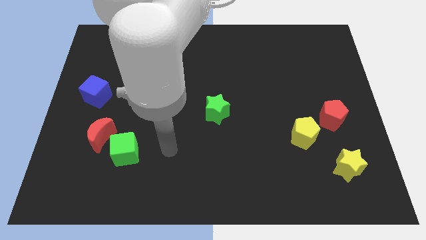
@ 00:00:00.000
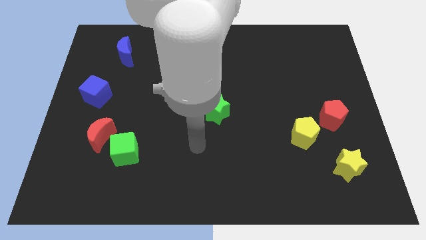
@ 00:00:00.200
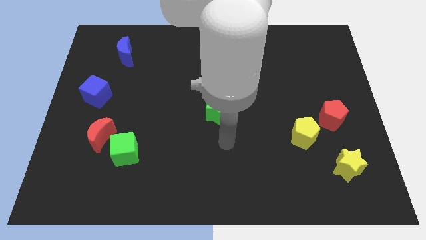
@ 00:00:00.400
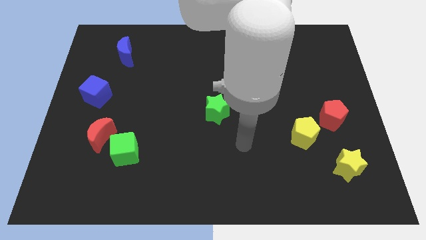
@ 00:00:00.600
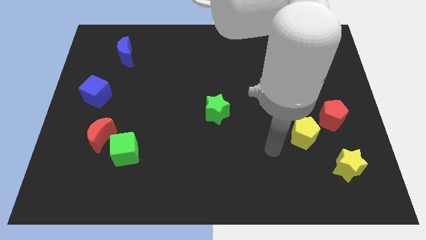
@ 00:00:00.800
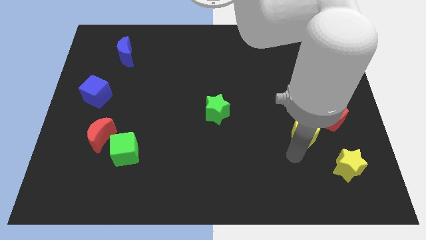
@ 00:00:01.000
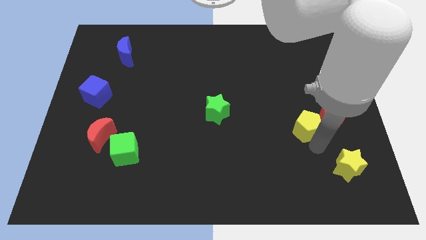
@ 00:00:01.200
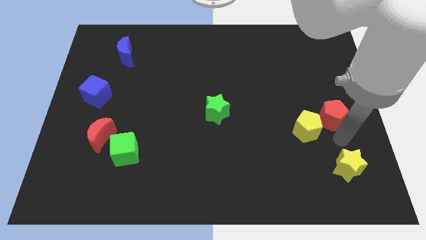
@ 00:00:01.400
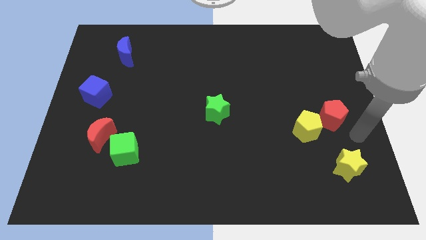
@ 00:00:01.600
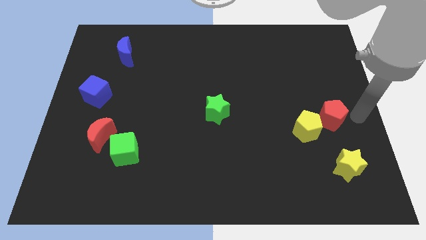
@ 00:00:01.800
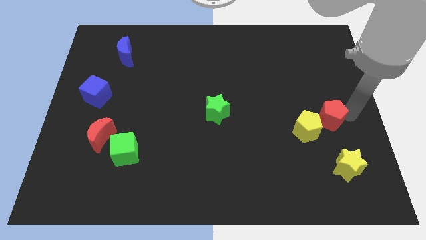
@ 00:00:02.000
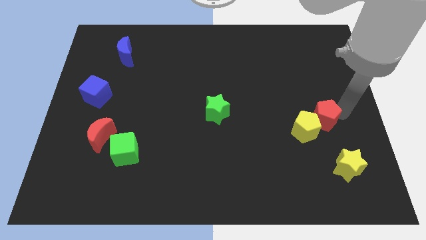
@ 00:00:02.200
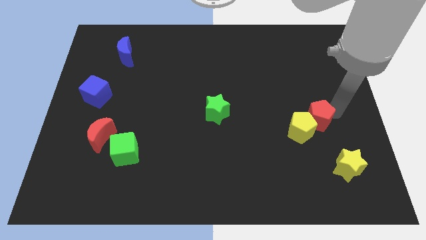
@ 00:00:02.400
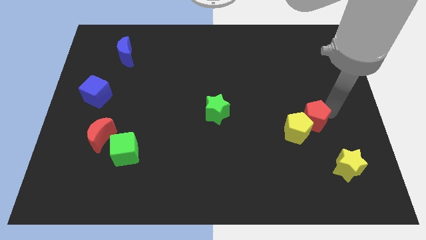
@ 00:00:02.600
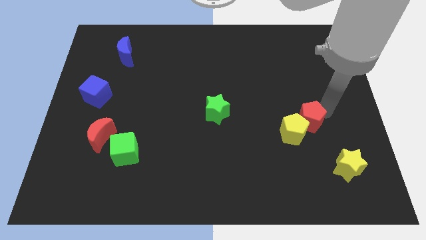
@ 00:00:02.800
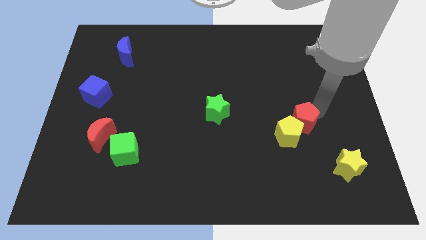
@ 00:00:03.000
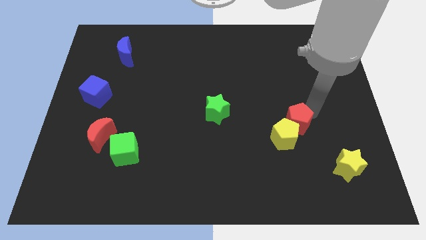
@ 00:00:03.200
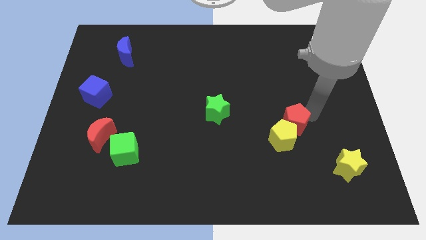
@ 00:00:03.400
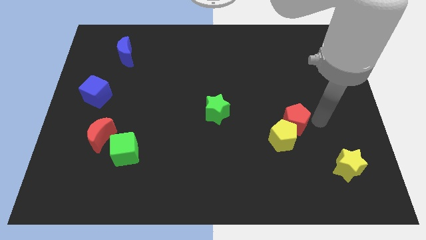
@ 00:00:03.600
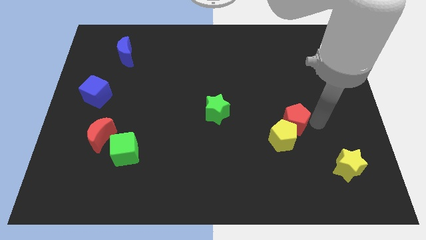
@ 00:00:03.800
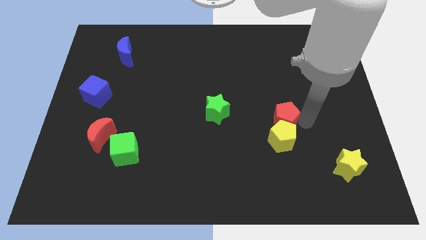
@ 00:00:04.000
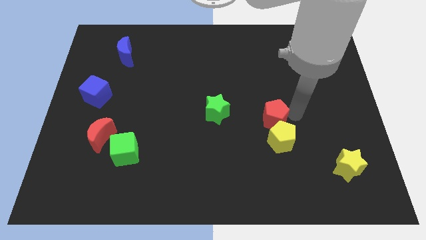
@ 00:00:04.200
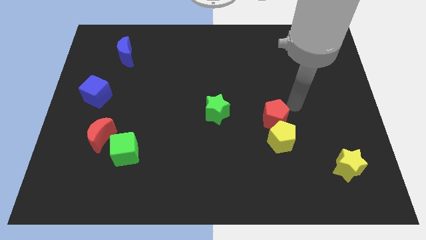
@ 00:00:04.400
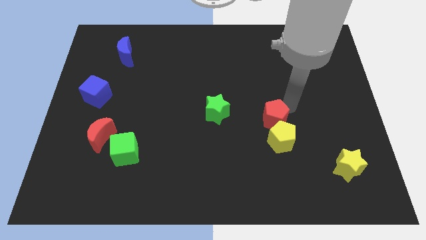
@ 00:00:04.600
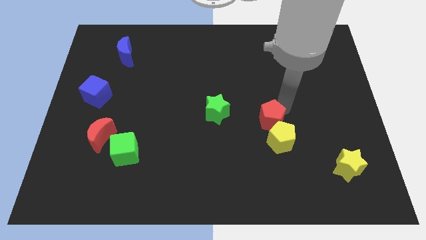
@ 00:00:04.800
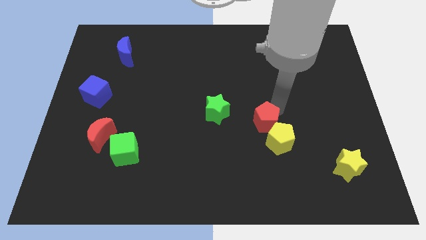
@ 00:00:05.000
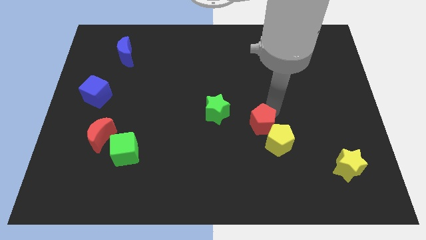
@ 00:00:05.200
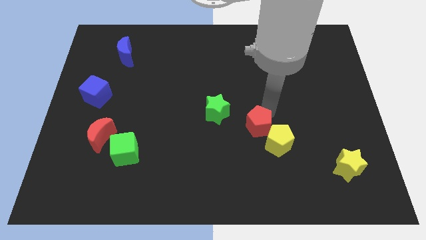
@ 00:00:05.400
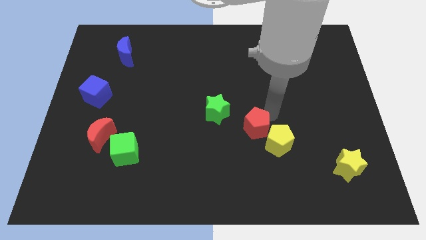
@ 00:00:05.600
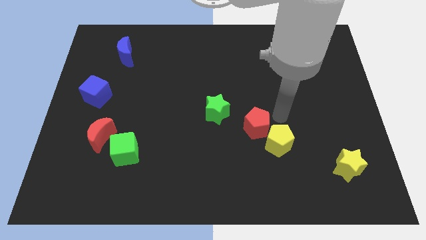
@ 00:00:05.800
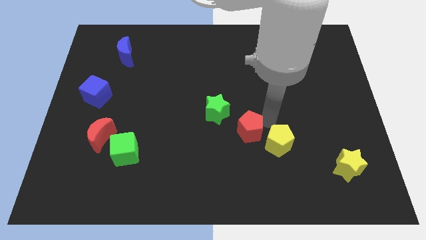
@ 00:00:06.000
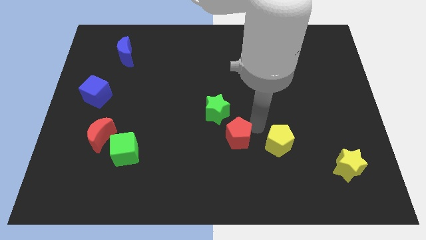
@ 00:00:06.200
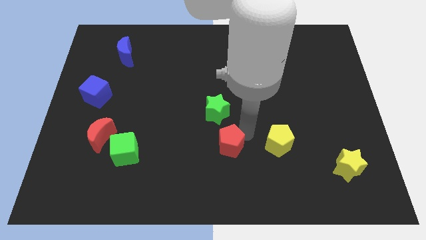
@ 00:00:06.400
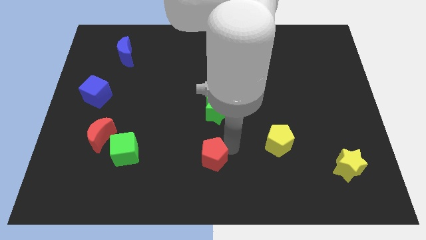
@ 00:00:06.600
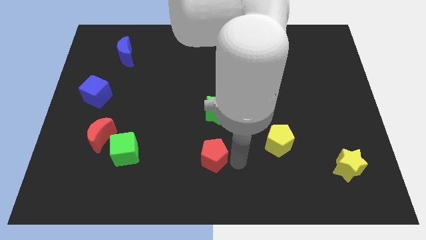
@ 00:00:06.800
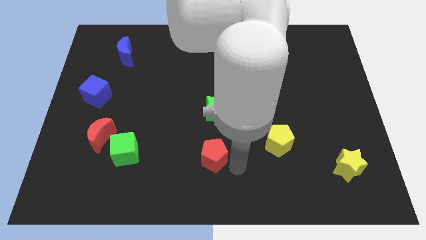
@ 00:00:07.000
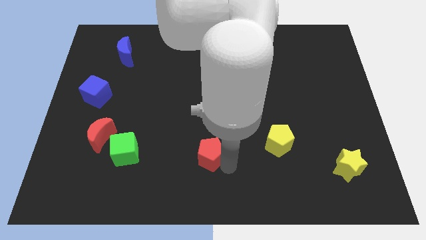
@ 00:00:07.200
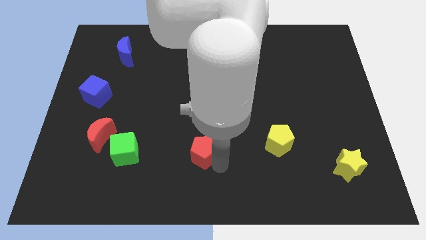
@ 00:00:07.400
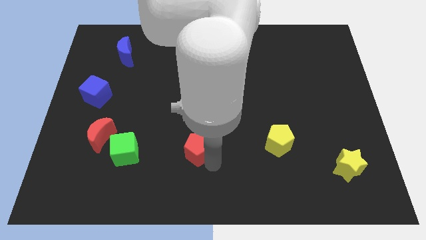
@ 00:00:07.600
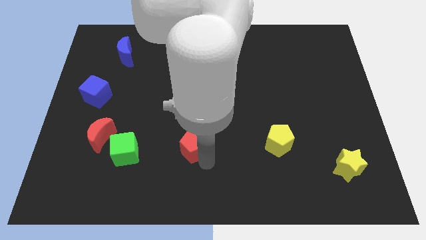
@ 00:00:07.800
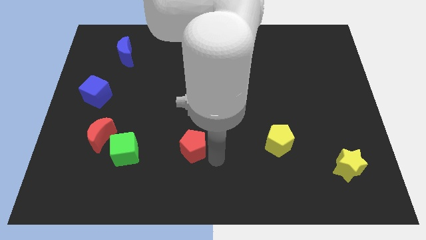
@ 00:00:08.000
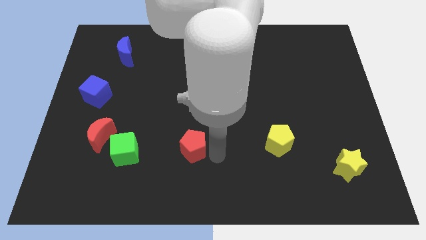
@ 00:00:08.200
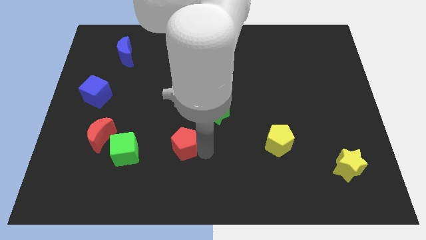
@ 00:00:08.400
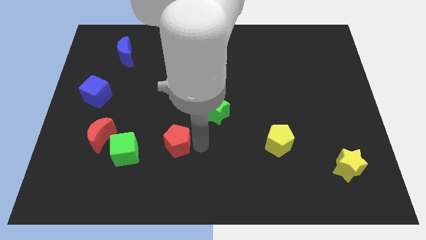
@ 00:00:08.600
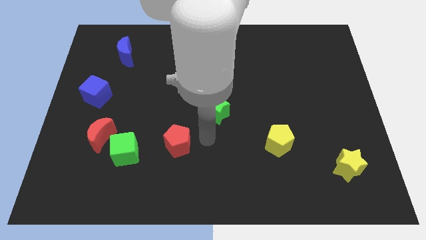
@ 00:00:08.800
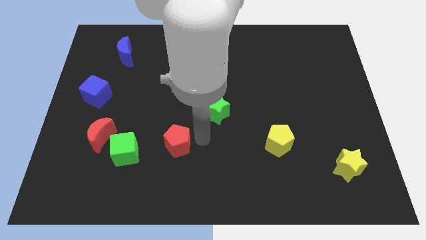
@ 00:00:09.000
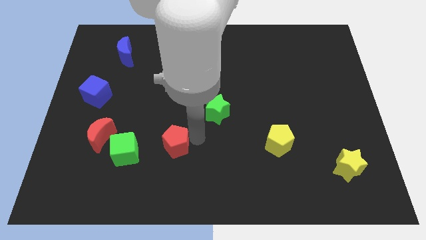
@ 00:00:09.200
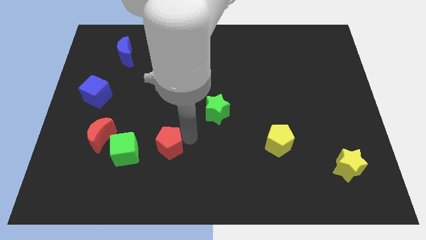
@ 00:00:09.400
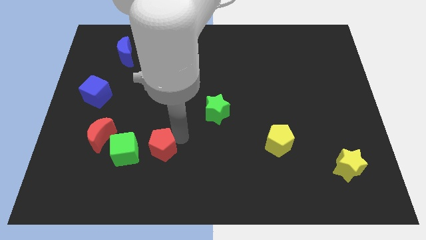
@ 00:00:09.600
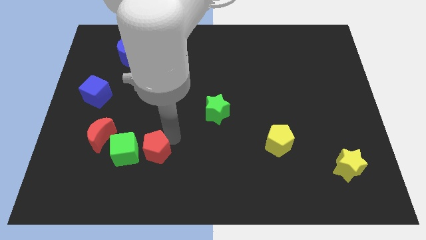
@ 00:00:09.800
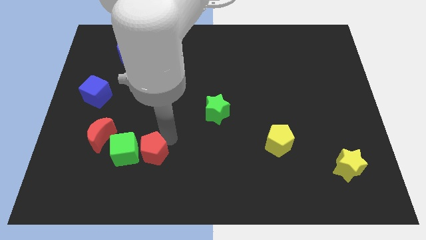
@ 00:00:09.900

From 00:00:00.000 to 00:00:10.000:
move the red pentagon towards the green cube

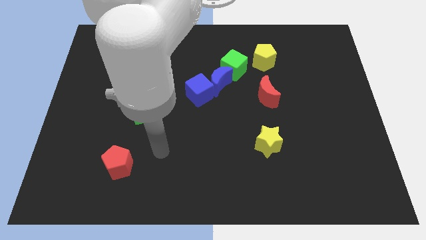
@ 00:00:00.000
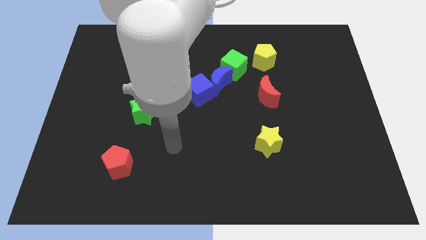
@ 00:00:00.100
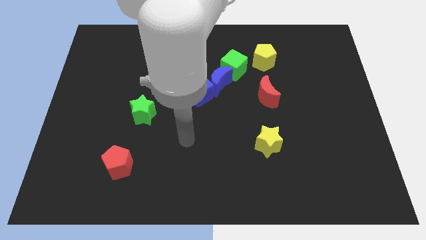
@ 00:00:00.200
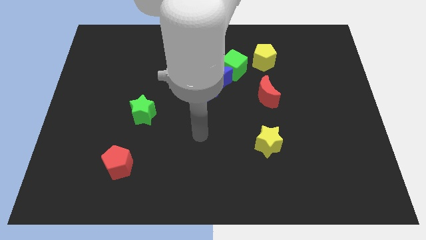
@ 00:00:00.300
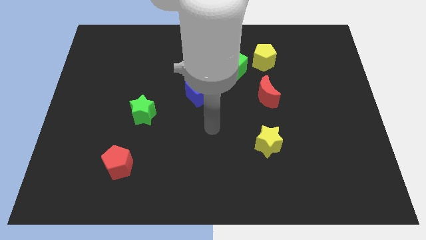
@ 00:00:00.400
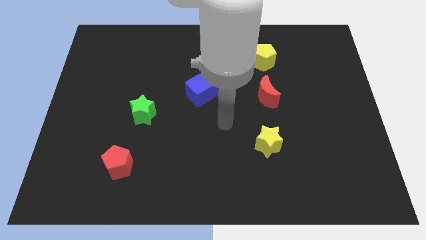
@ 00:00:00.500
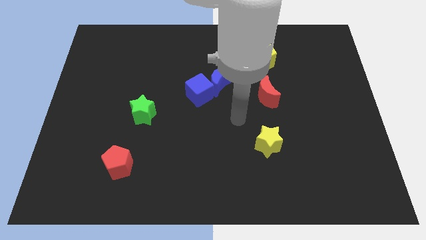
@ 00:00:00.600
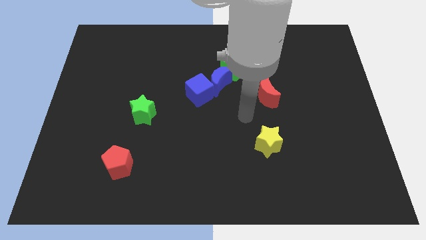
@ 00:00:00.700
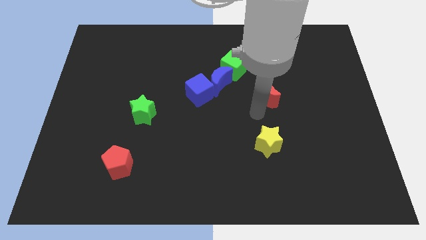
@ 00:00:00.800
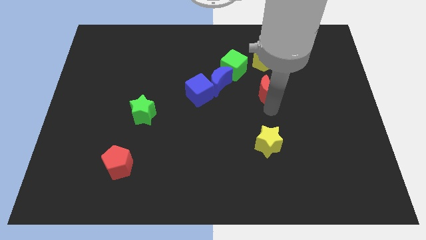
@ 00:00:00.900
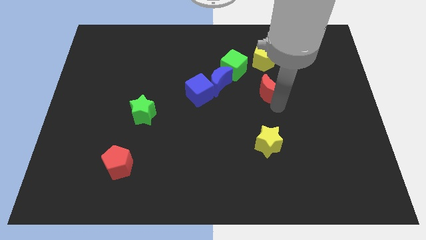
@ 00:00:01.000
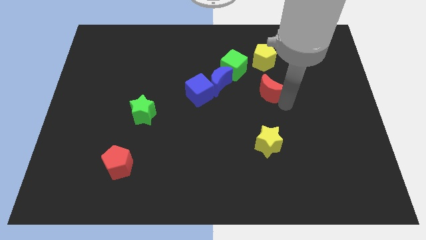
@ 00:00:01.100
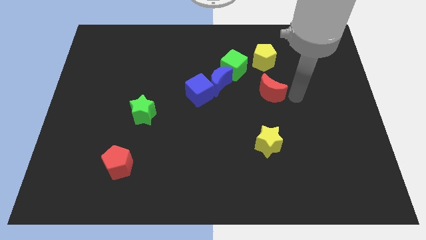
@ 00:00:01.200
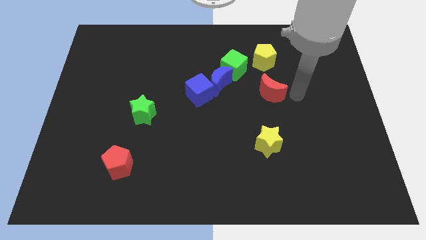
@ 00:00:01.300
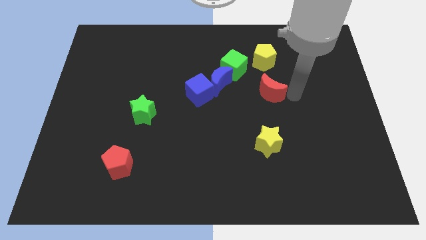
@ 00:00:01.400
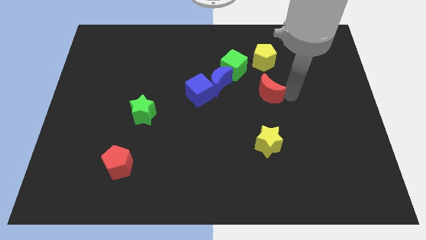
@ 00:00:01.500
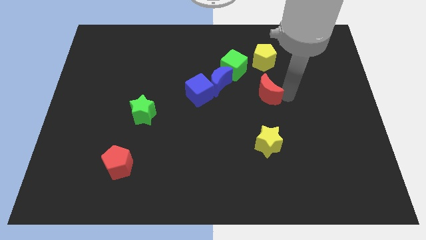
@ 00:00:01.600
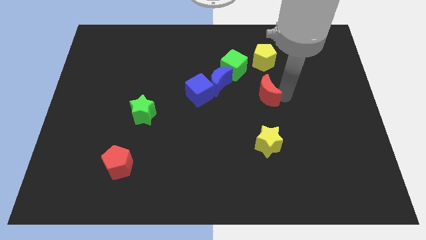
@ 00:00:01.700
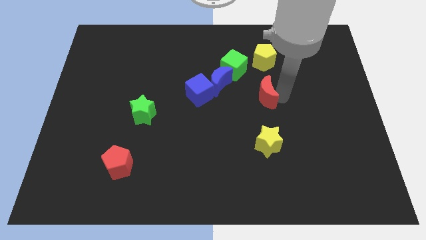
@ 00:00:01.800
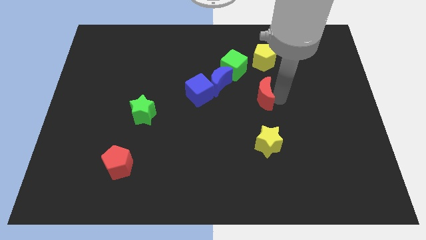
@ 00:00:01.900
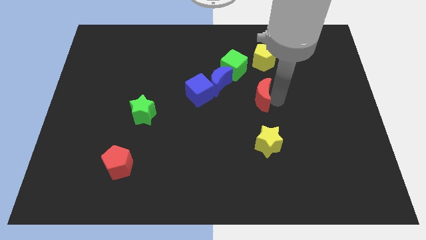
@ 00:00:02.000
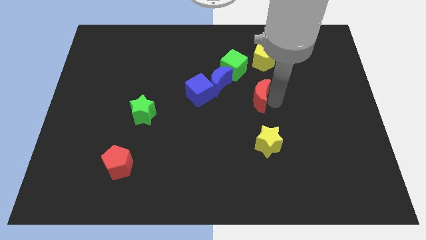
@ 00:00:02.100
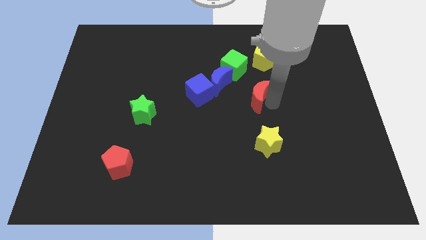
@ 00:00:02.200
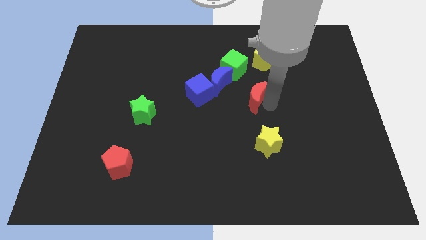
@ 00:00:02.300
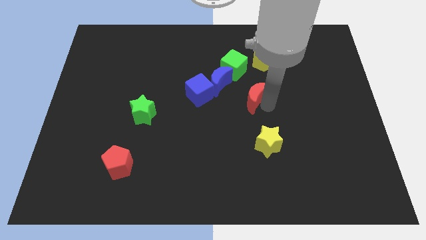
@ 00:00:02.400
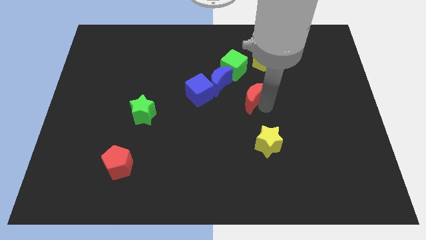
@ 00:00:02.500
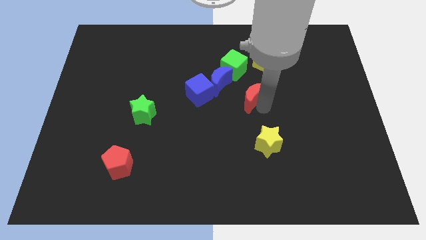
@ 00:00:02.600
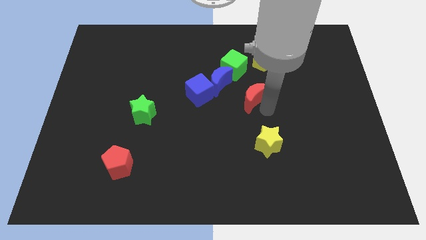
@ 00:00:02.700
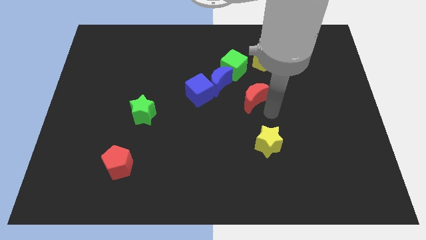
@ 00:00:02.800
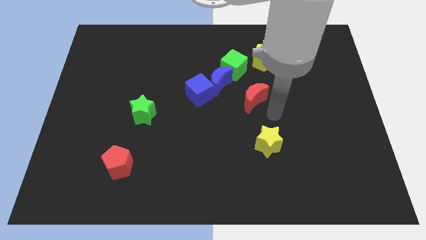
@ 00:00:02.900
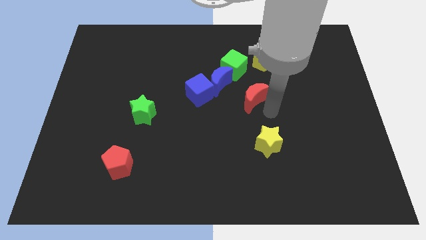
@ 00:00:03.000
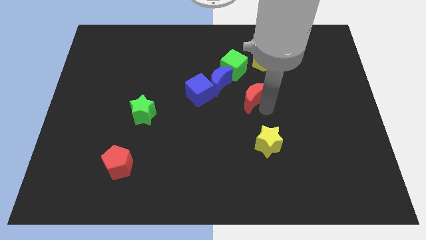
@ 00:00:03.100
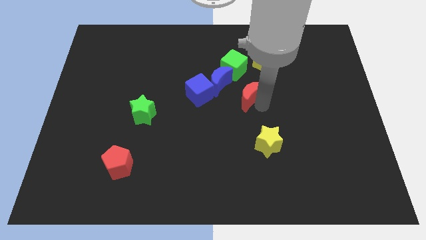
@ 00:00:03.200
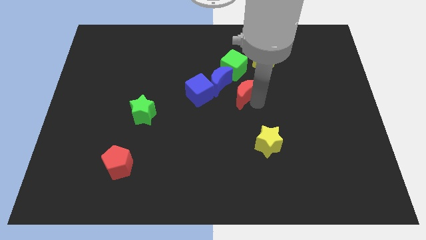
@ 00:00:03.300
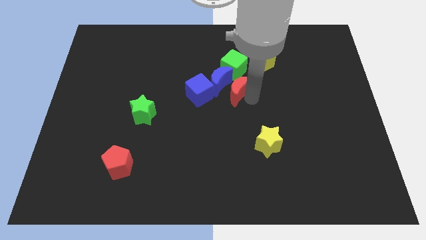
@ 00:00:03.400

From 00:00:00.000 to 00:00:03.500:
slide the red moon towards the blue moon
